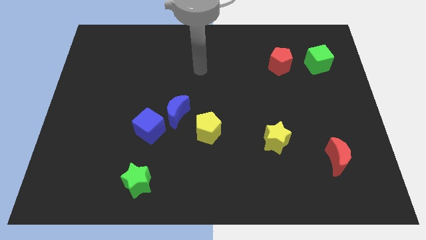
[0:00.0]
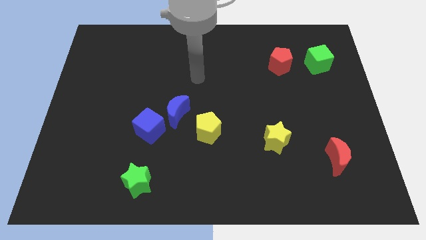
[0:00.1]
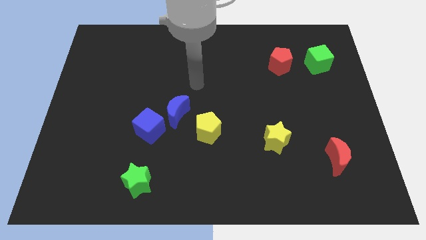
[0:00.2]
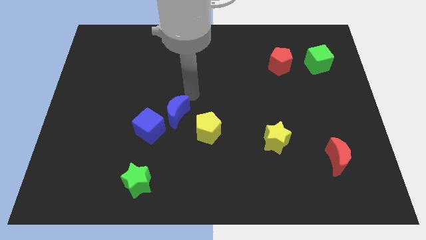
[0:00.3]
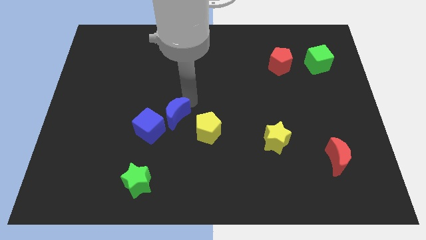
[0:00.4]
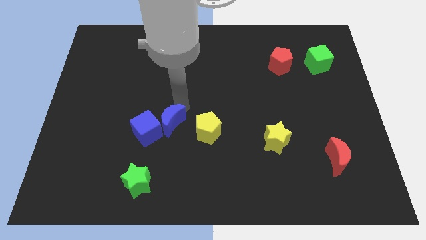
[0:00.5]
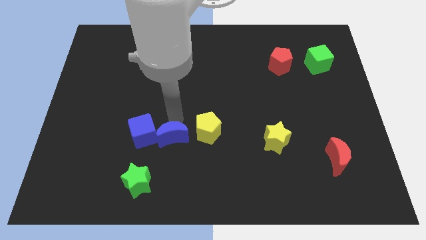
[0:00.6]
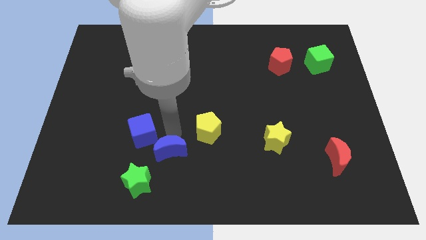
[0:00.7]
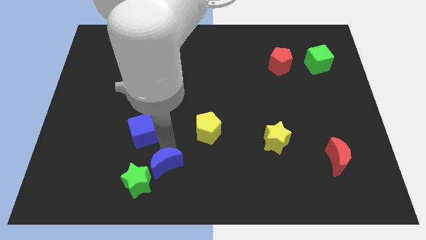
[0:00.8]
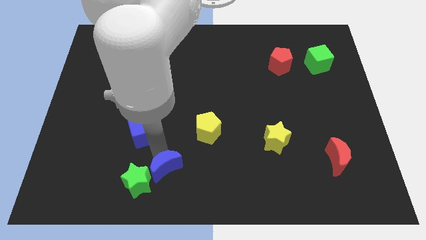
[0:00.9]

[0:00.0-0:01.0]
move the blue cube away from the blue moon

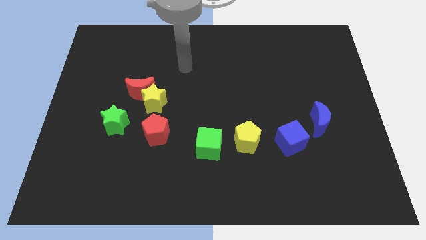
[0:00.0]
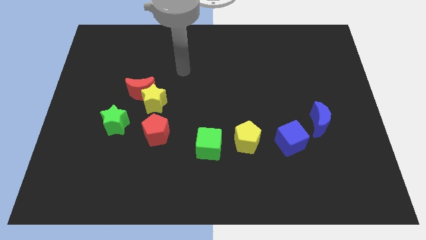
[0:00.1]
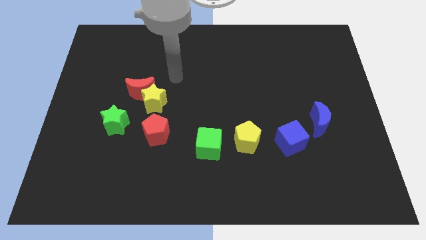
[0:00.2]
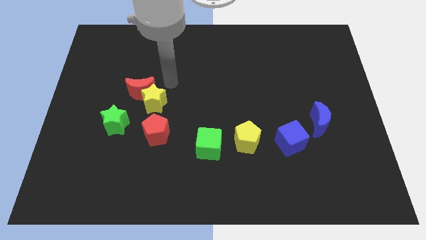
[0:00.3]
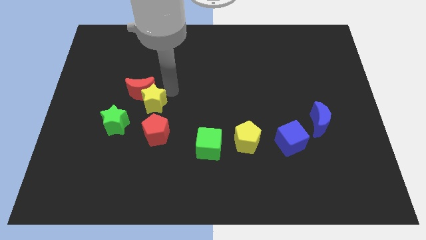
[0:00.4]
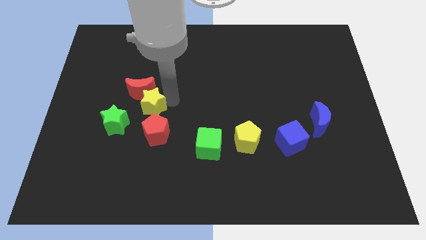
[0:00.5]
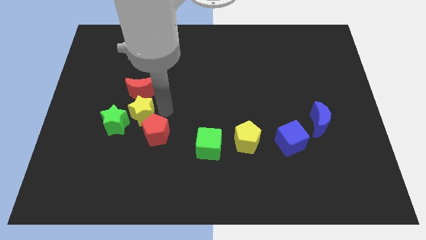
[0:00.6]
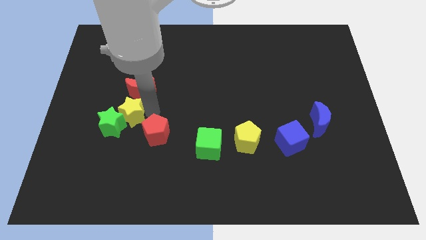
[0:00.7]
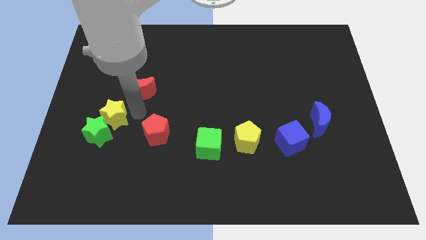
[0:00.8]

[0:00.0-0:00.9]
move the red moon away from the yellow star and green star

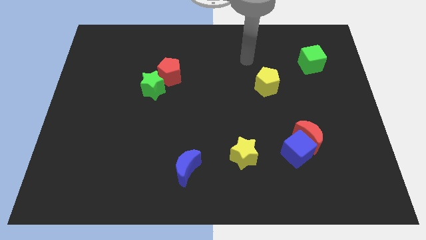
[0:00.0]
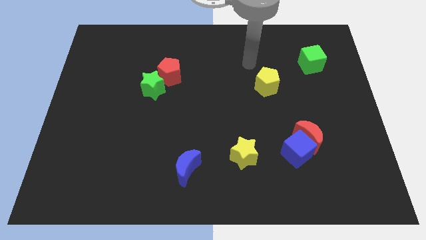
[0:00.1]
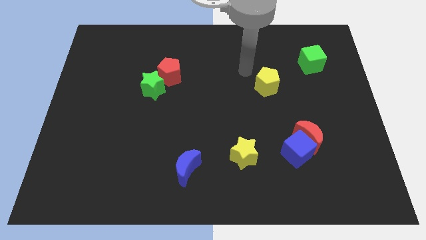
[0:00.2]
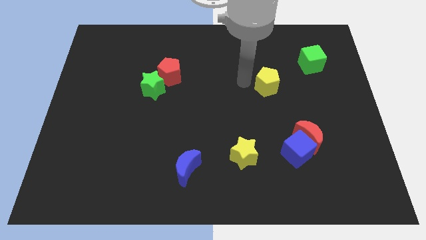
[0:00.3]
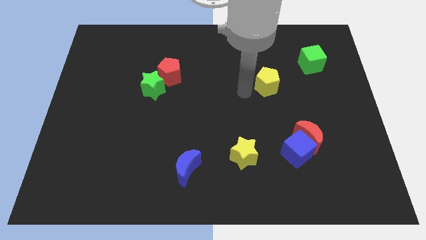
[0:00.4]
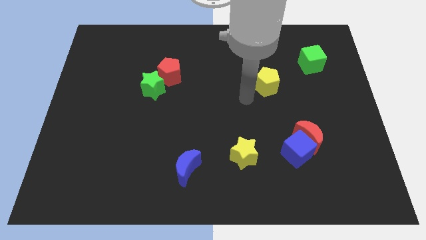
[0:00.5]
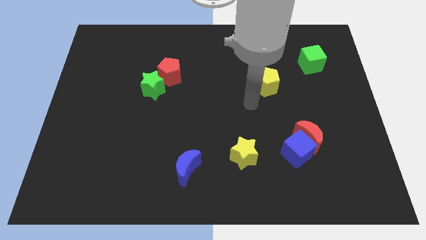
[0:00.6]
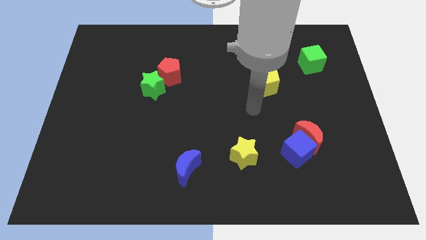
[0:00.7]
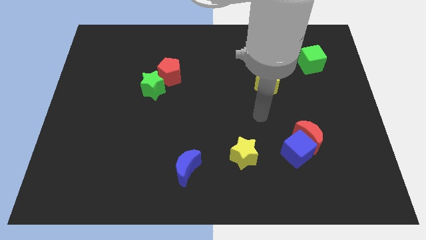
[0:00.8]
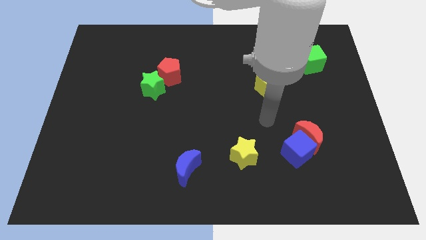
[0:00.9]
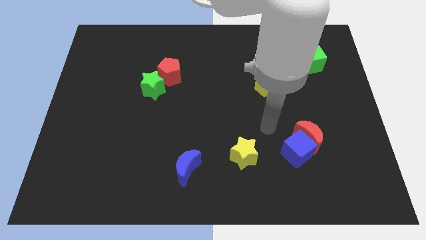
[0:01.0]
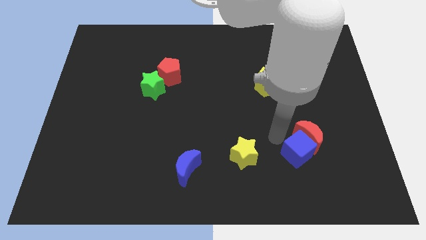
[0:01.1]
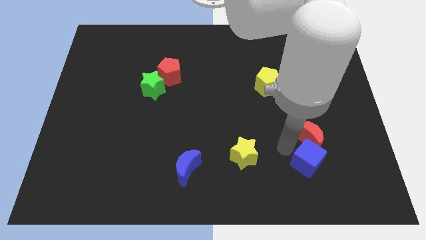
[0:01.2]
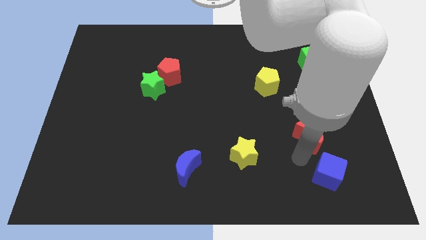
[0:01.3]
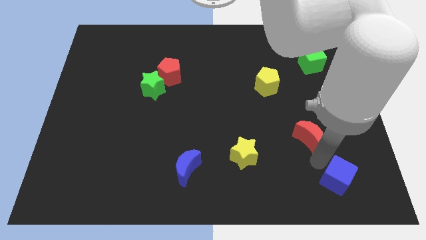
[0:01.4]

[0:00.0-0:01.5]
pull the red moon apart from the blue cube

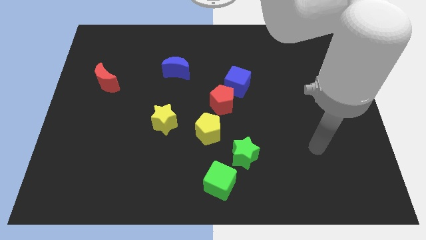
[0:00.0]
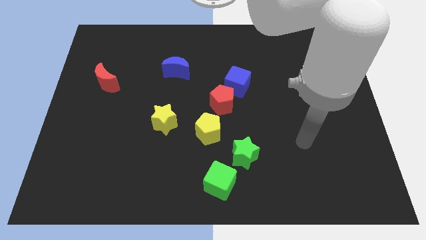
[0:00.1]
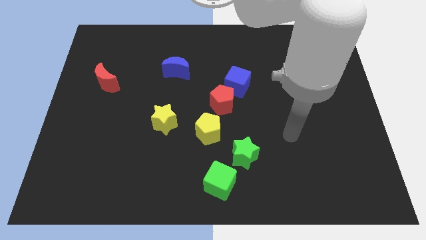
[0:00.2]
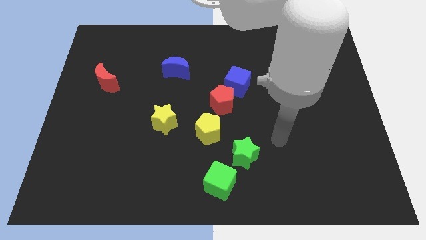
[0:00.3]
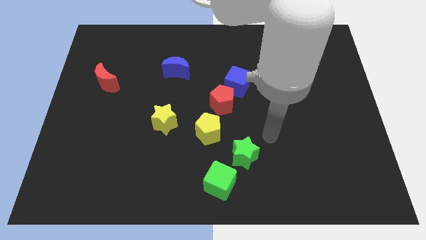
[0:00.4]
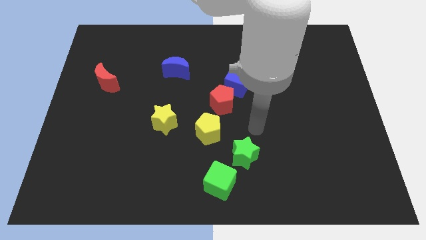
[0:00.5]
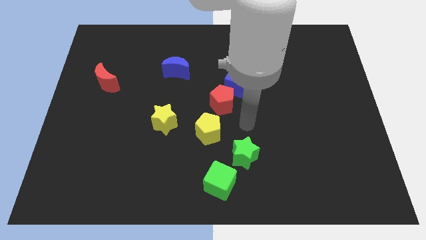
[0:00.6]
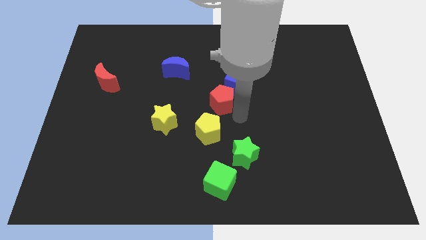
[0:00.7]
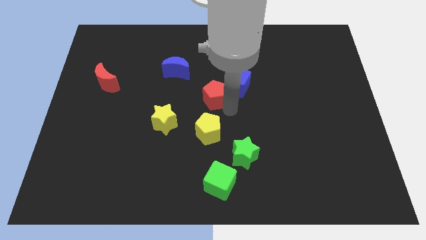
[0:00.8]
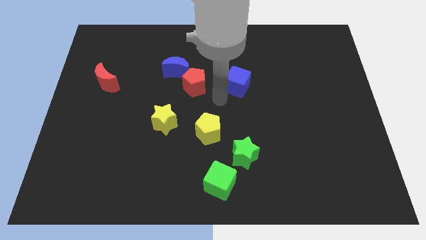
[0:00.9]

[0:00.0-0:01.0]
pull the blue cube apart from the red pentagon

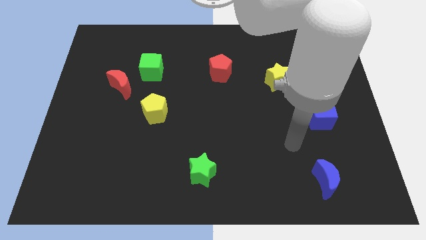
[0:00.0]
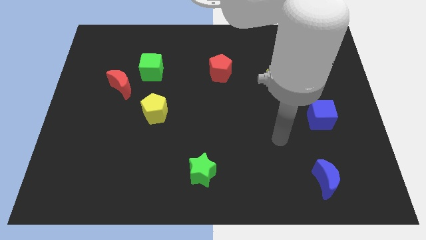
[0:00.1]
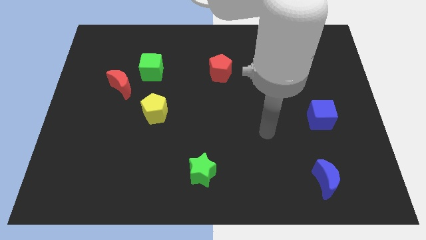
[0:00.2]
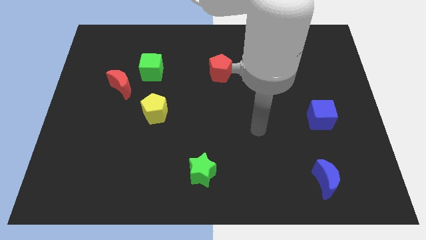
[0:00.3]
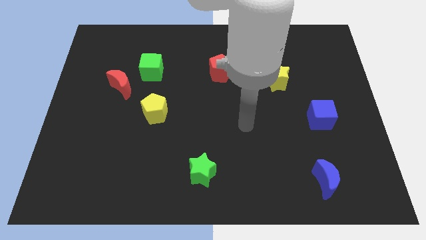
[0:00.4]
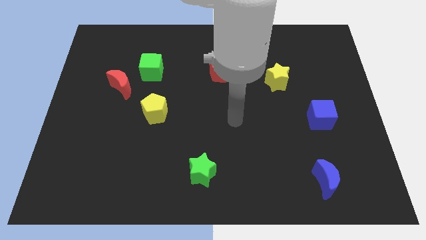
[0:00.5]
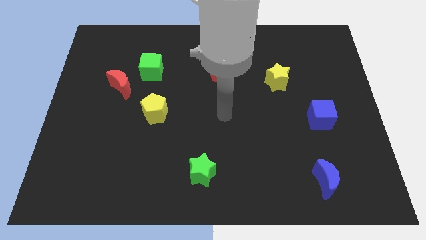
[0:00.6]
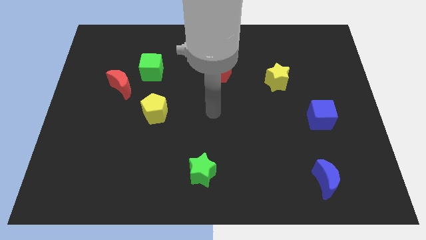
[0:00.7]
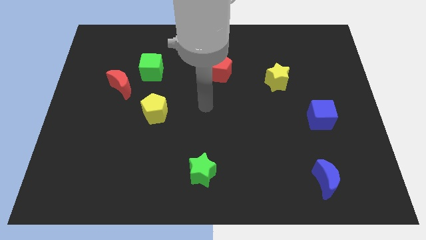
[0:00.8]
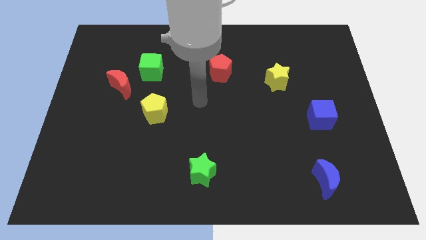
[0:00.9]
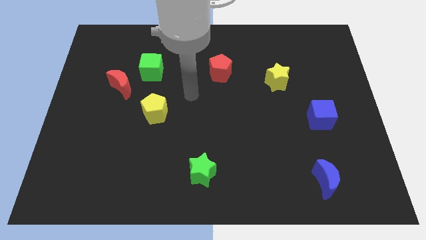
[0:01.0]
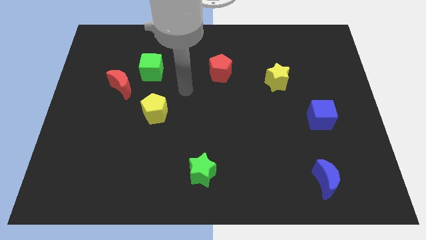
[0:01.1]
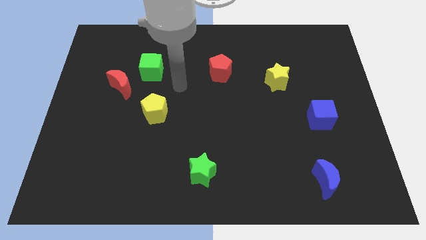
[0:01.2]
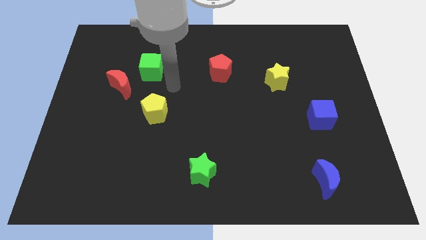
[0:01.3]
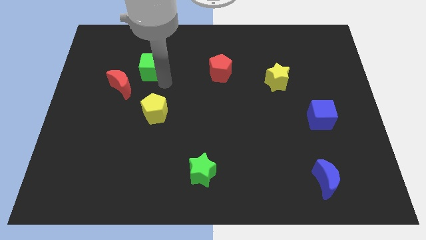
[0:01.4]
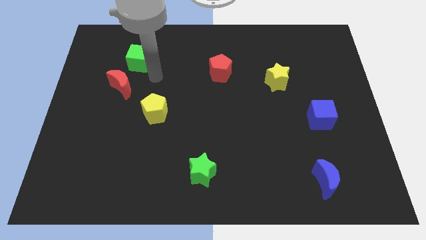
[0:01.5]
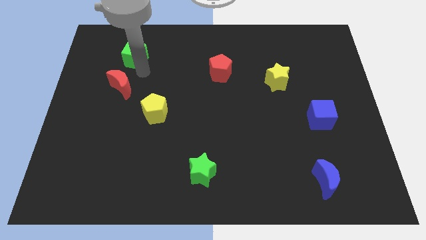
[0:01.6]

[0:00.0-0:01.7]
pull the red moon apart from the green cube

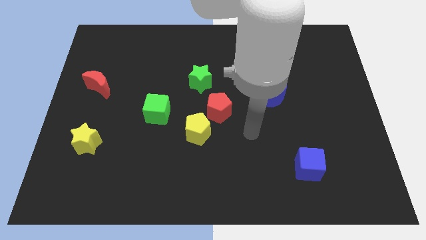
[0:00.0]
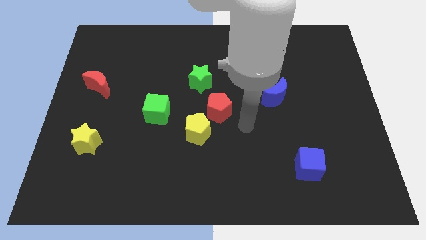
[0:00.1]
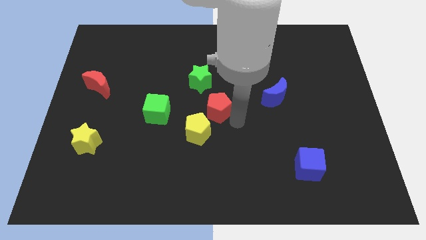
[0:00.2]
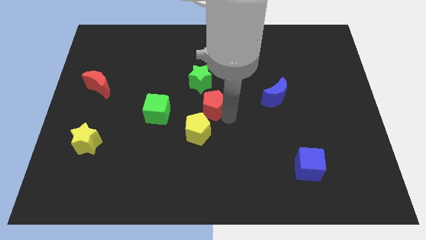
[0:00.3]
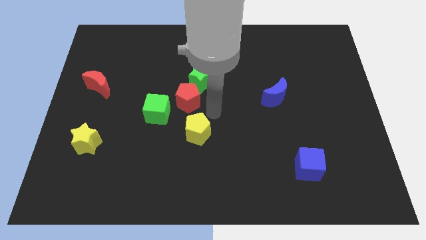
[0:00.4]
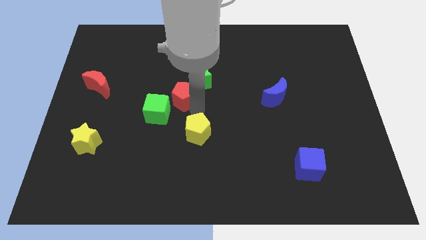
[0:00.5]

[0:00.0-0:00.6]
pull the yellow pentagon apart from the red pentagon

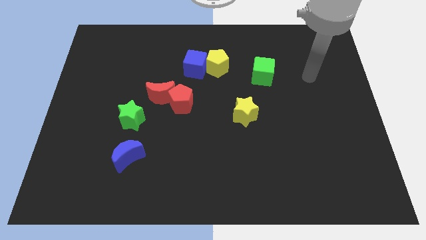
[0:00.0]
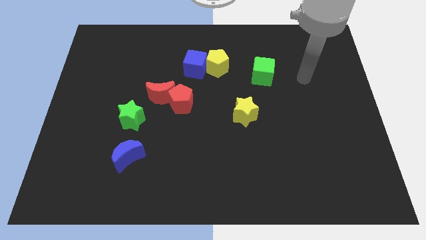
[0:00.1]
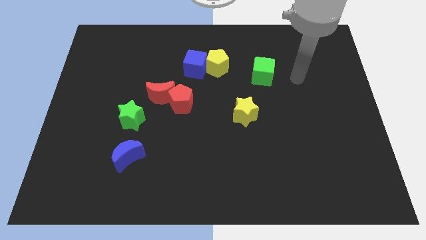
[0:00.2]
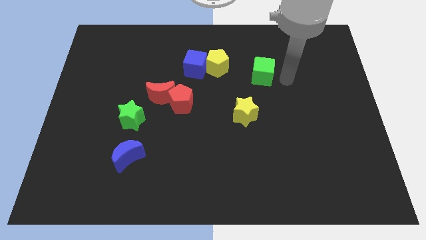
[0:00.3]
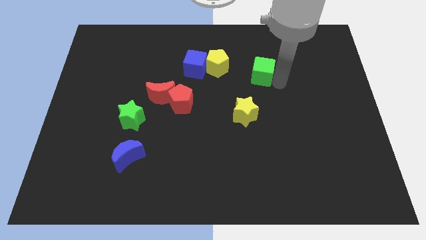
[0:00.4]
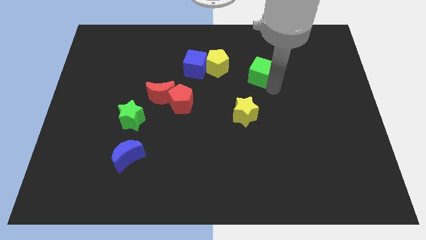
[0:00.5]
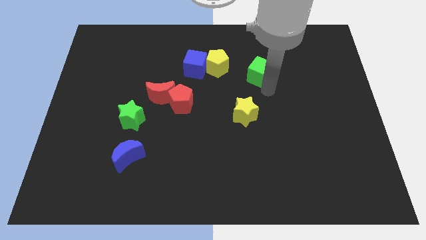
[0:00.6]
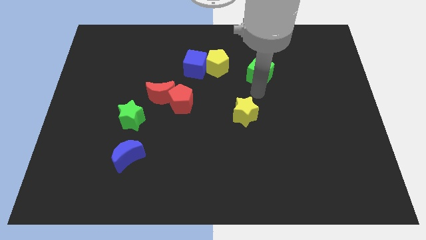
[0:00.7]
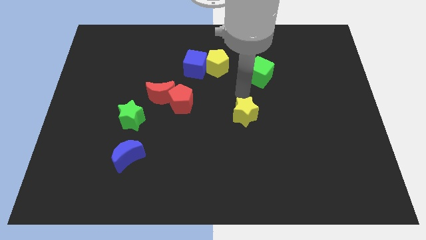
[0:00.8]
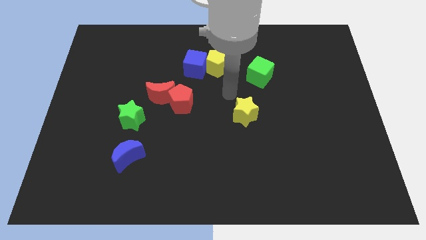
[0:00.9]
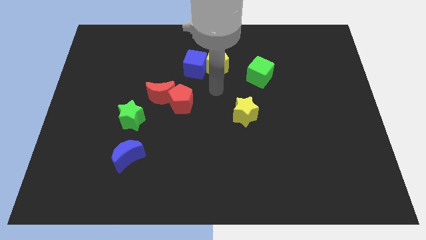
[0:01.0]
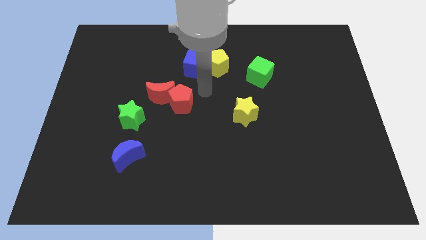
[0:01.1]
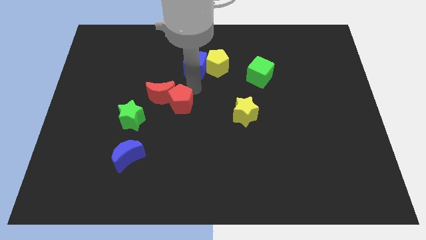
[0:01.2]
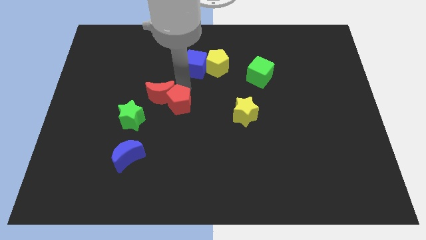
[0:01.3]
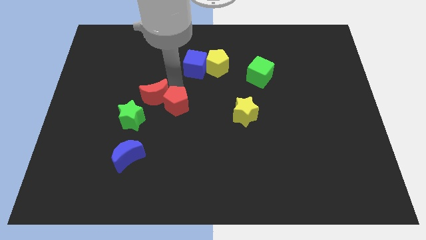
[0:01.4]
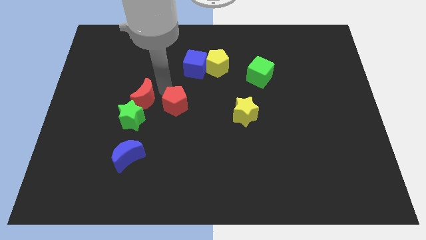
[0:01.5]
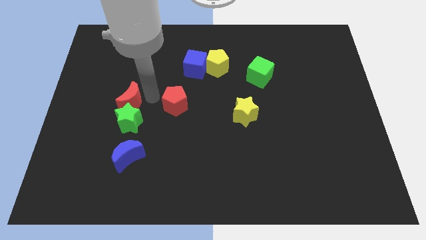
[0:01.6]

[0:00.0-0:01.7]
pull the red pentagon apart from the red moon

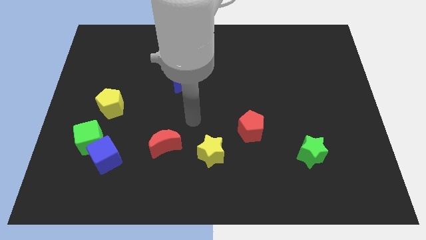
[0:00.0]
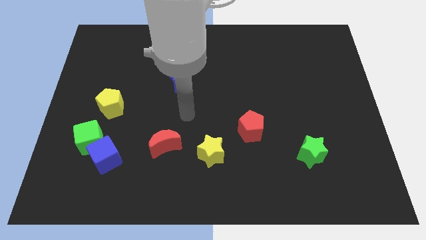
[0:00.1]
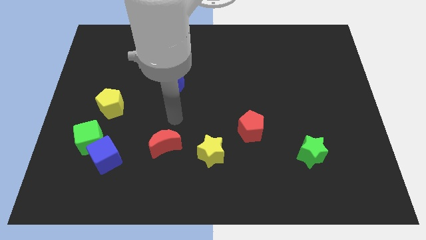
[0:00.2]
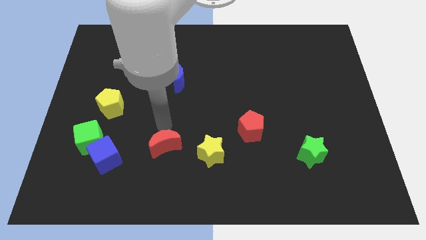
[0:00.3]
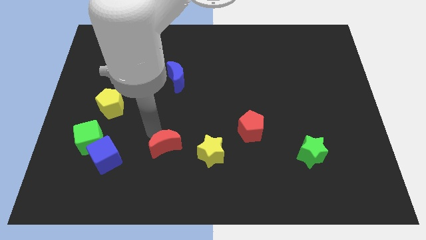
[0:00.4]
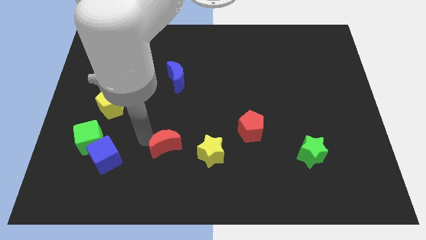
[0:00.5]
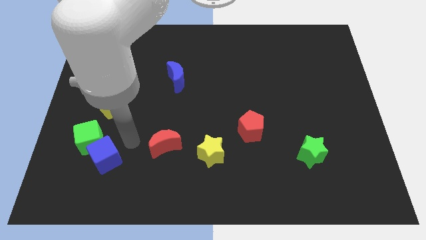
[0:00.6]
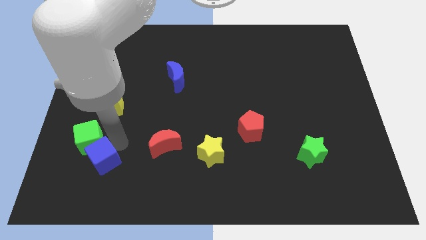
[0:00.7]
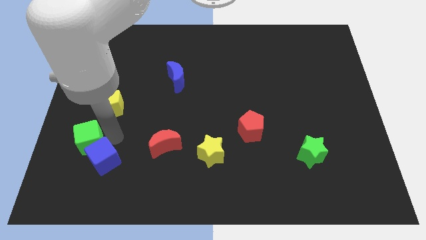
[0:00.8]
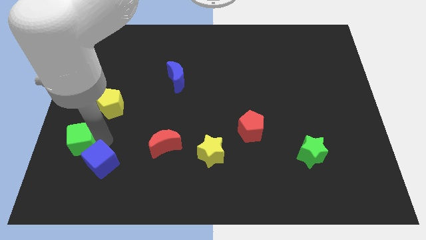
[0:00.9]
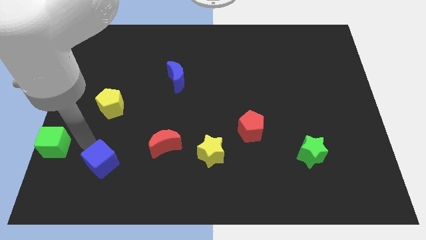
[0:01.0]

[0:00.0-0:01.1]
pull the blue cube apart from the green cube

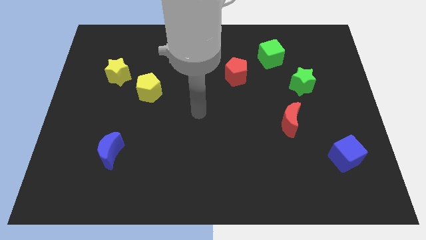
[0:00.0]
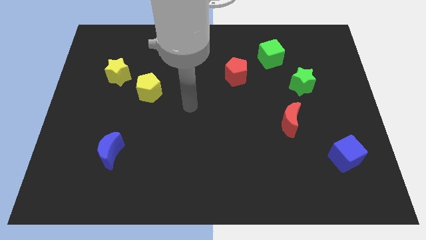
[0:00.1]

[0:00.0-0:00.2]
separate the yellow star from the yellow pentagon
